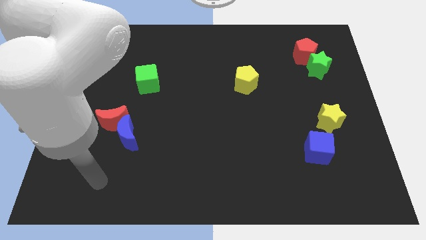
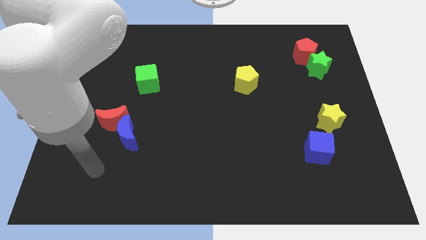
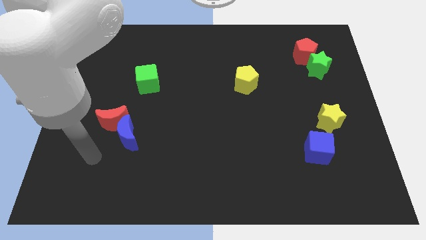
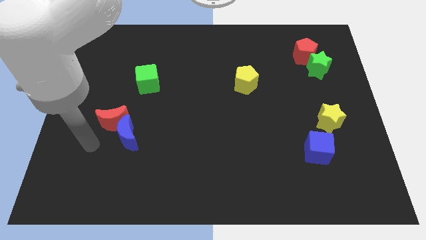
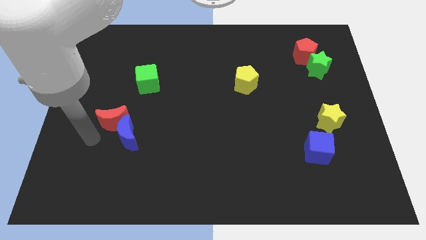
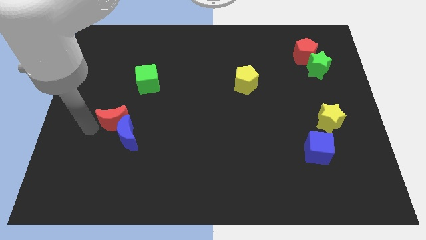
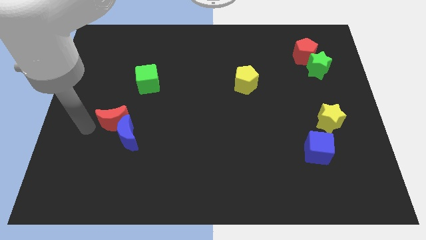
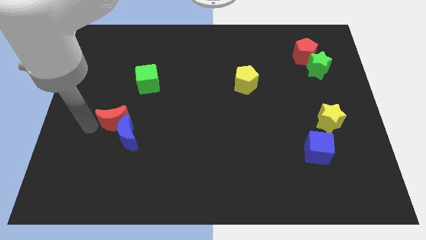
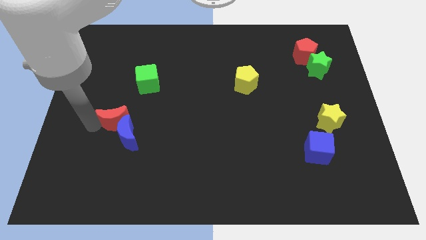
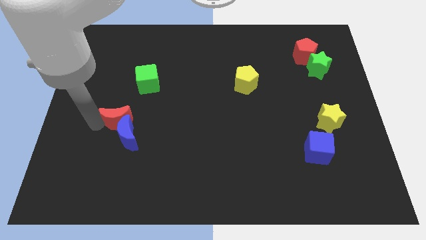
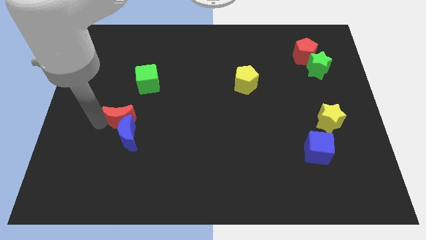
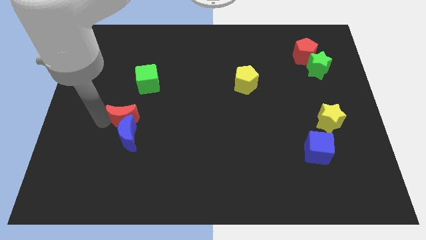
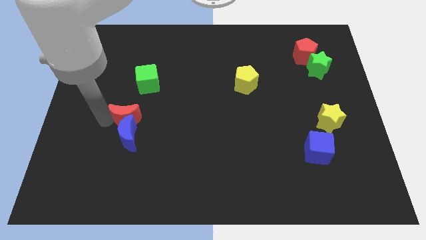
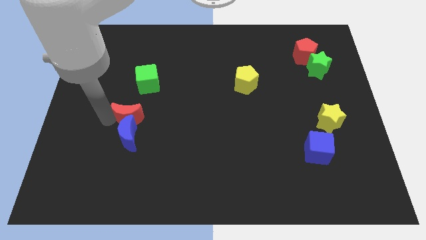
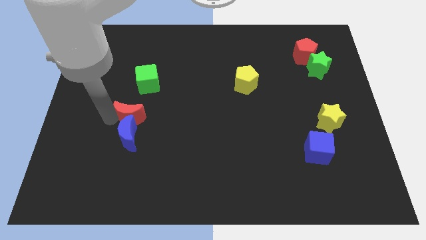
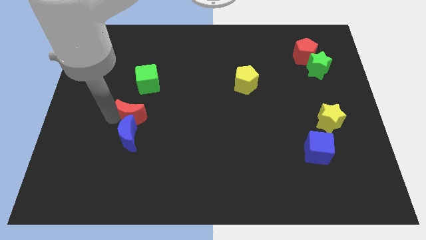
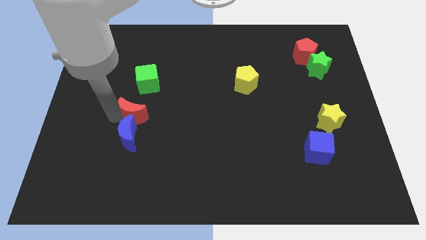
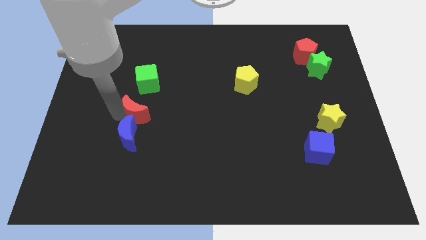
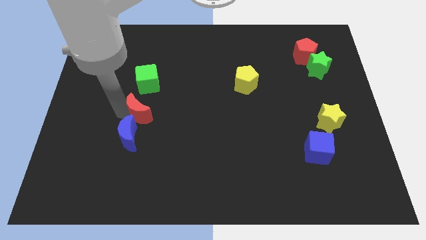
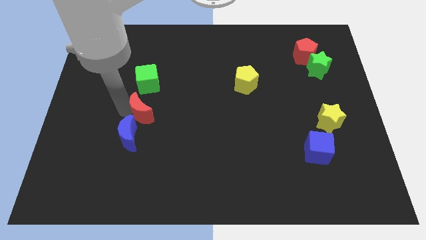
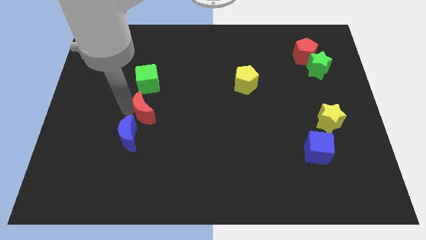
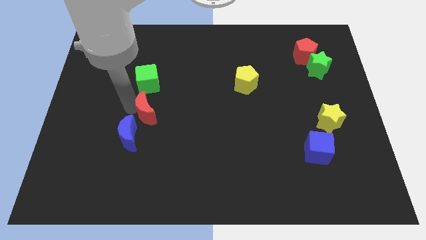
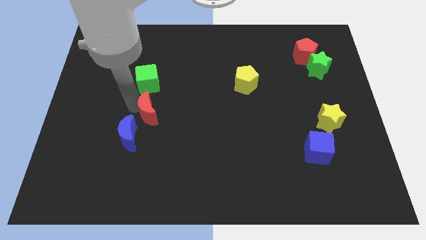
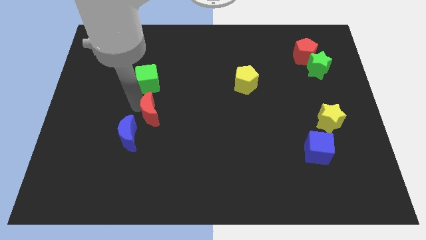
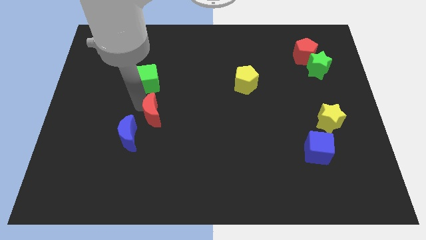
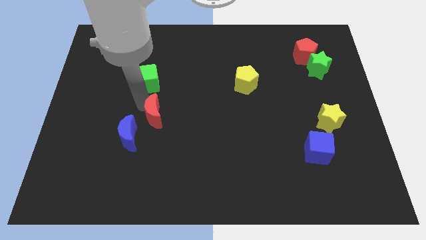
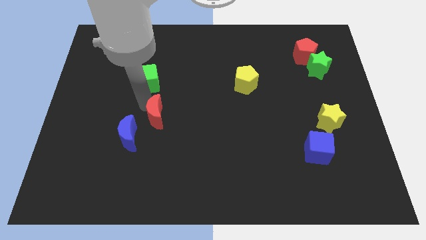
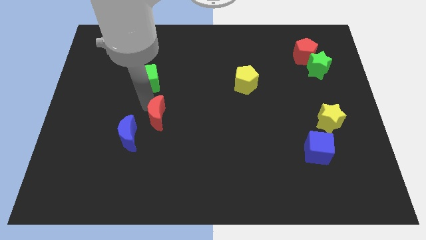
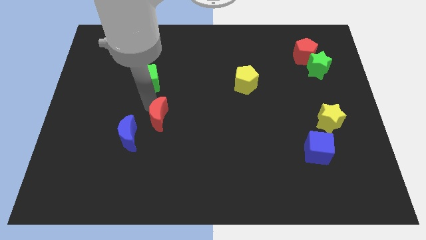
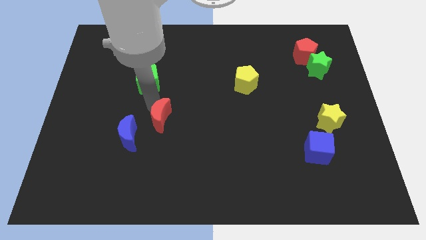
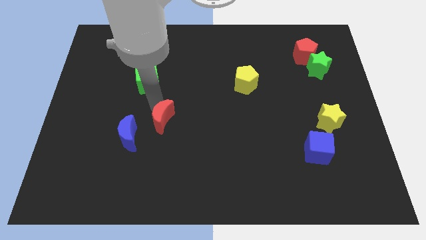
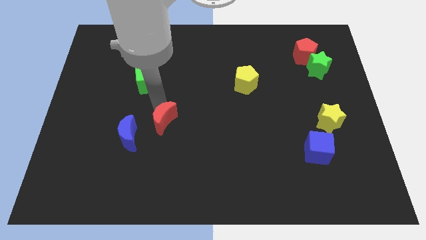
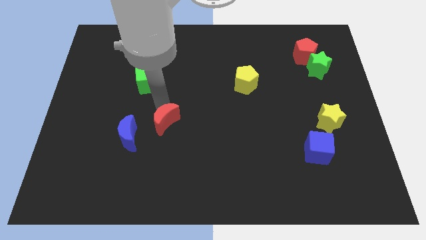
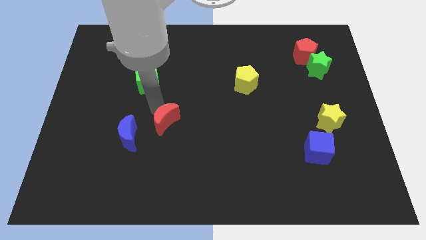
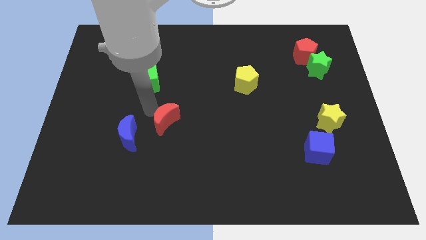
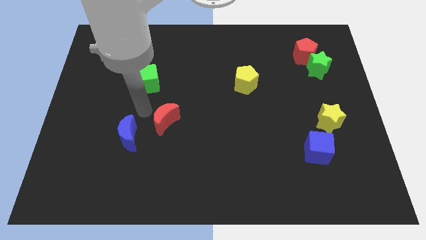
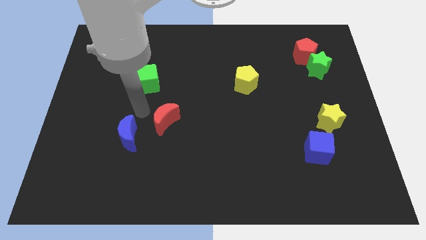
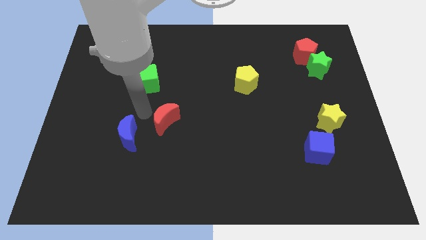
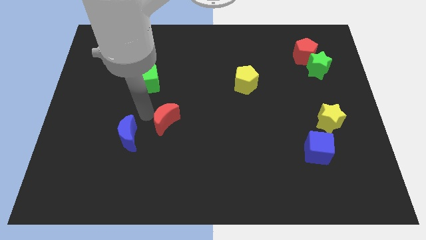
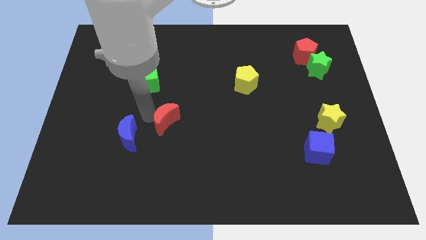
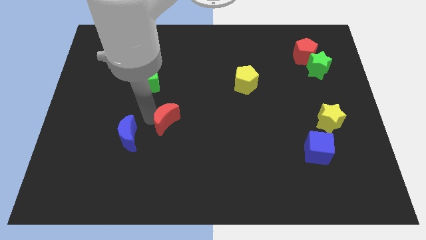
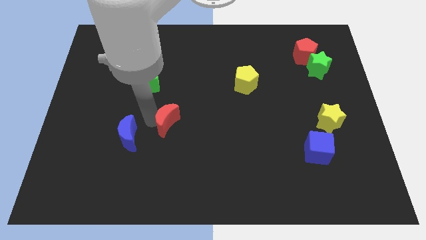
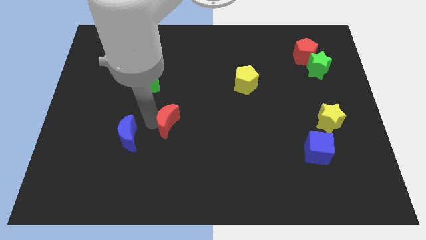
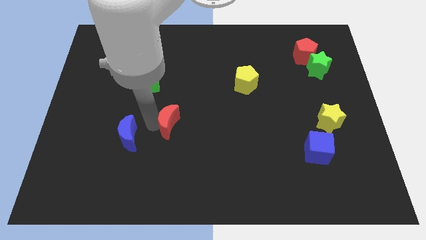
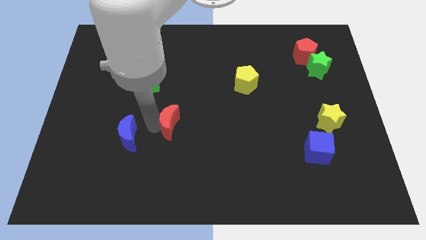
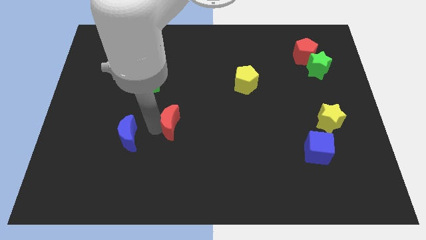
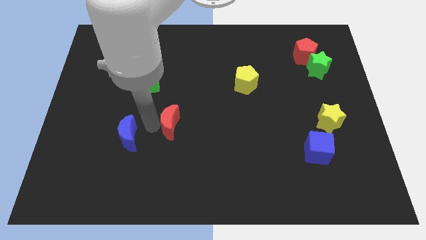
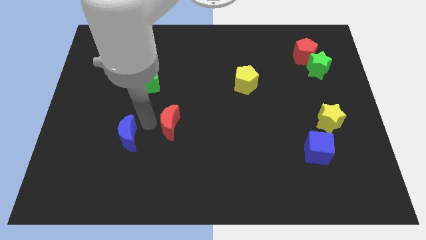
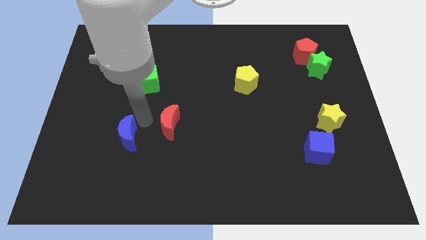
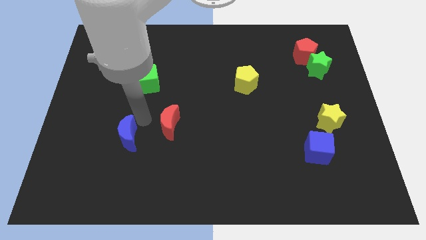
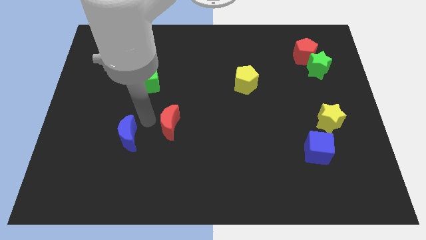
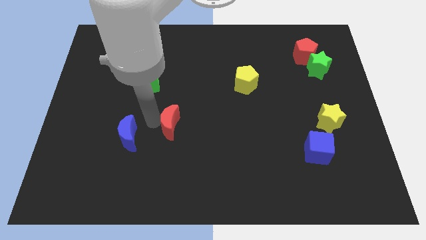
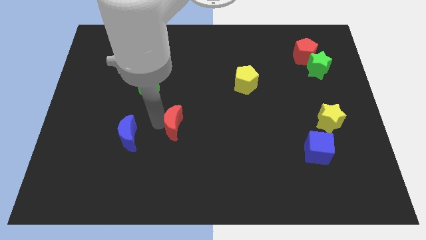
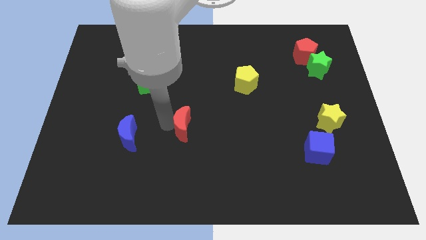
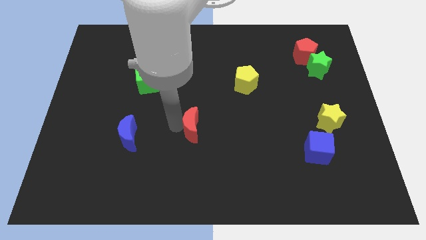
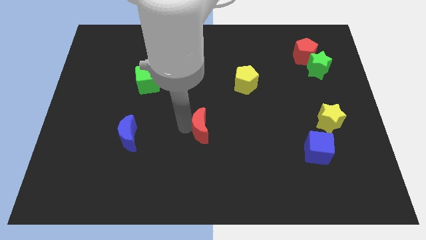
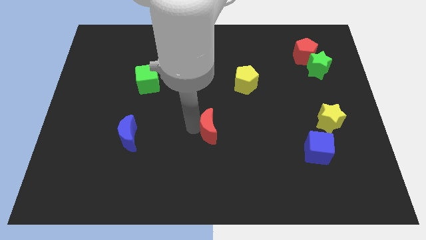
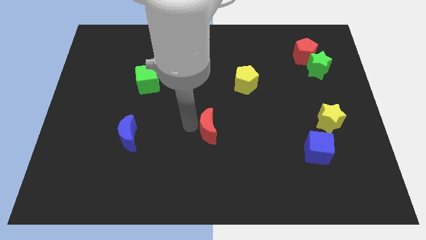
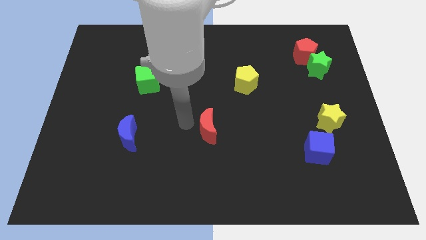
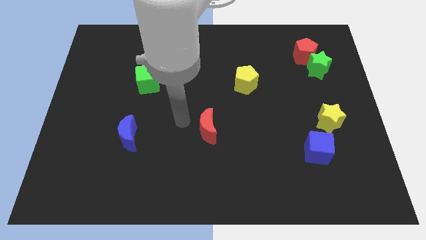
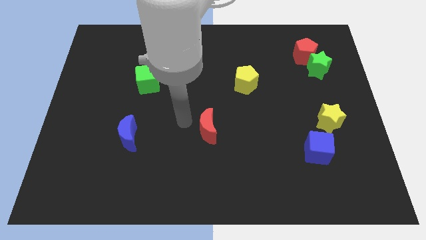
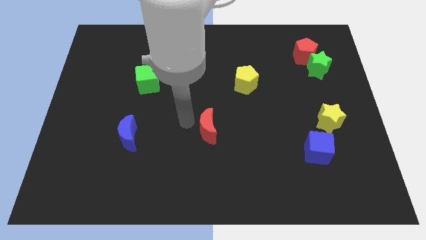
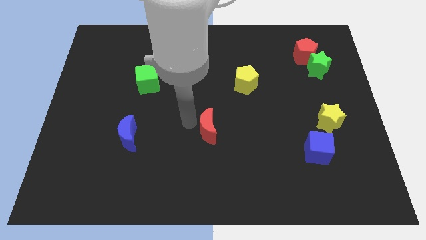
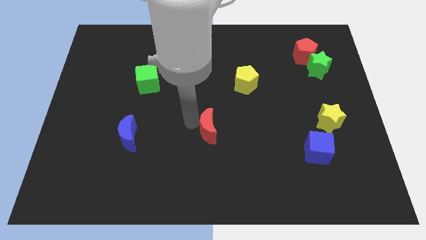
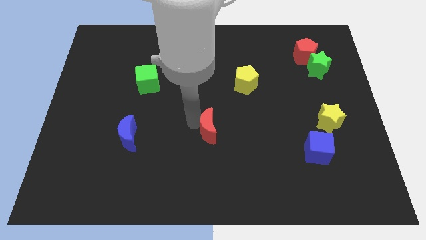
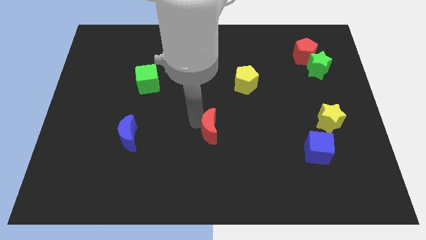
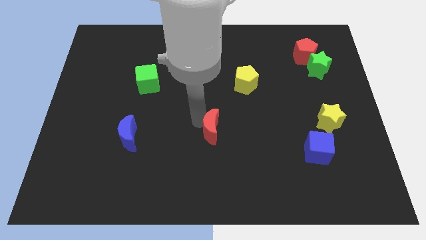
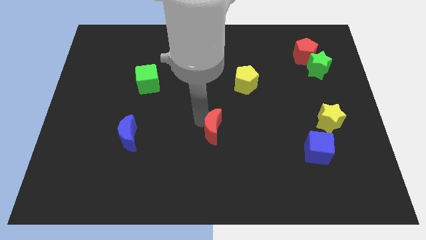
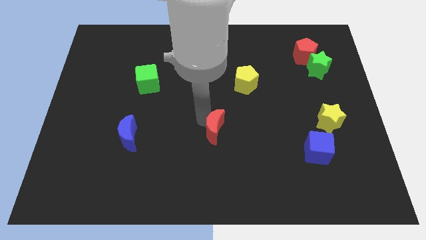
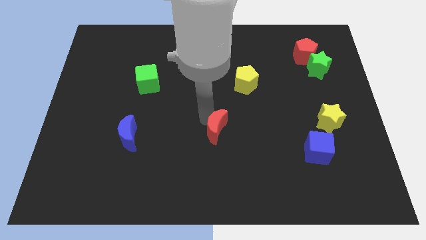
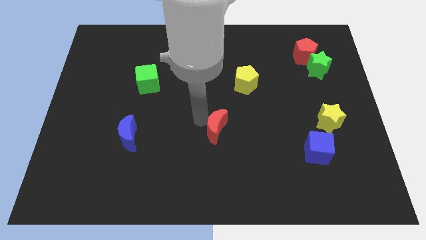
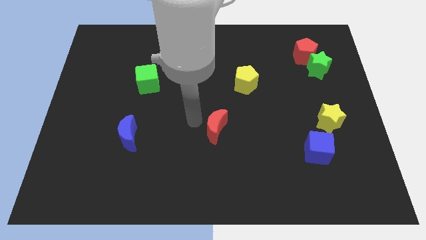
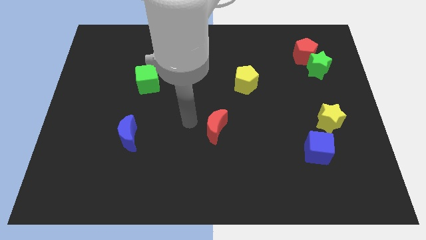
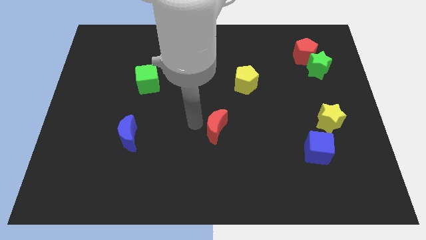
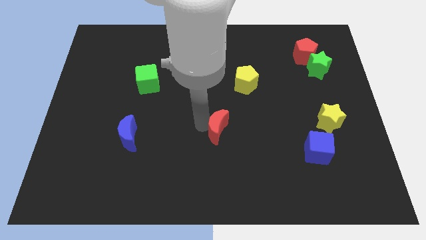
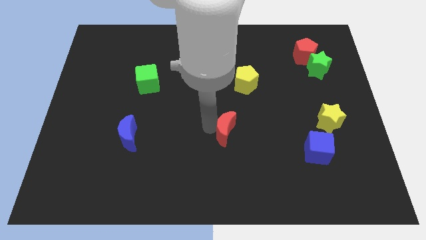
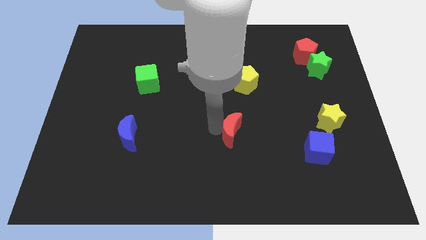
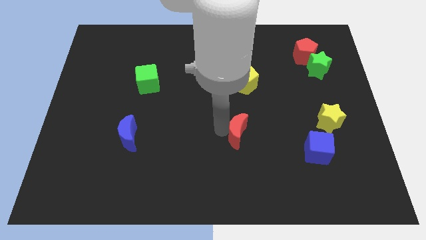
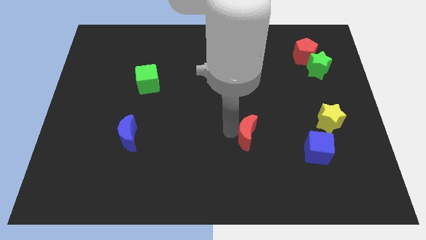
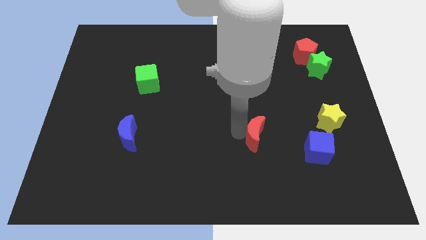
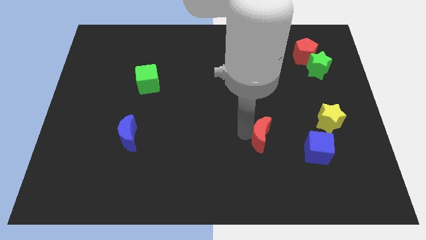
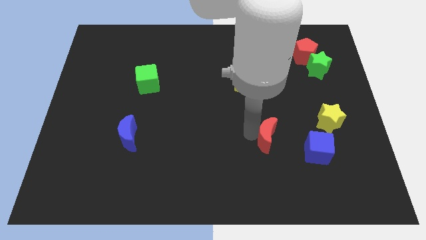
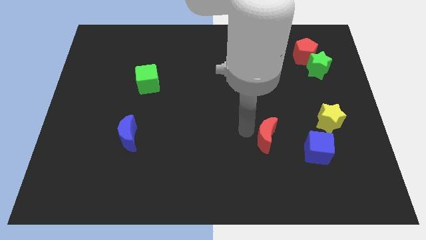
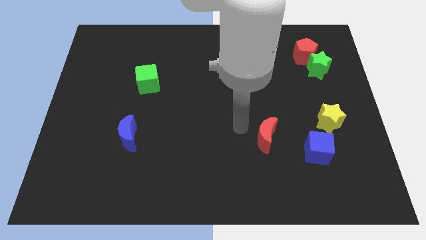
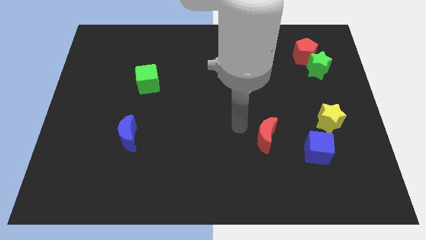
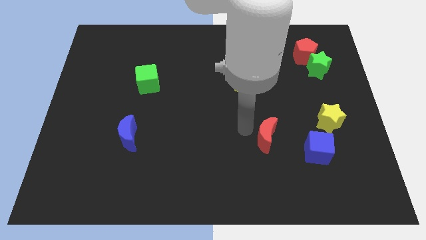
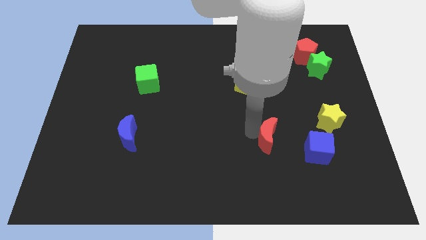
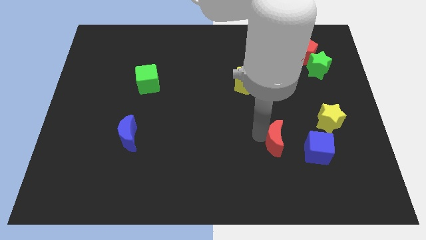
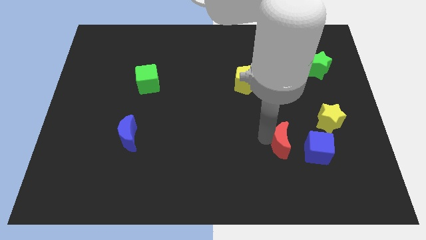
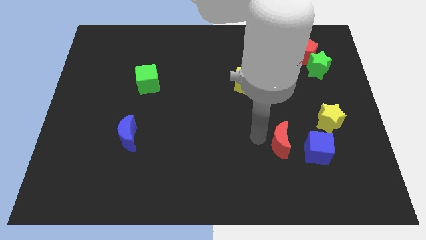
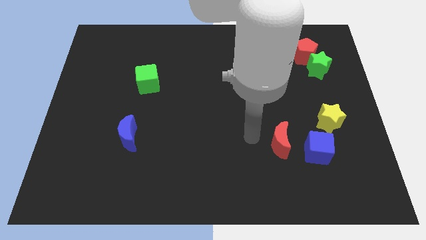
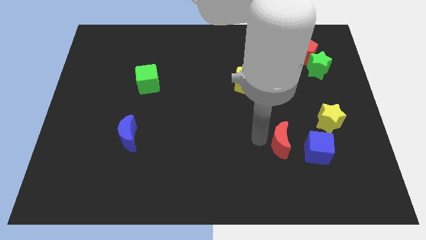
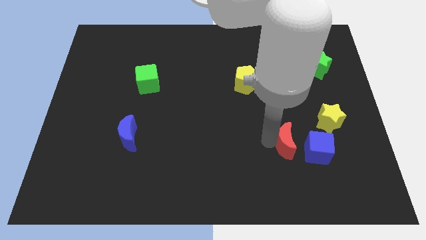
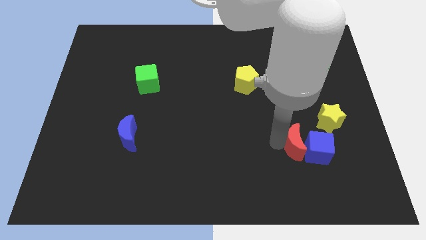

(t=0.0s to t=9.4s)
slide the red moon close to the blue cube
